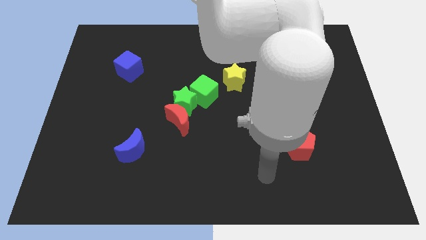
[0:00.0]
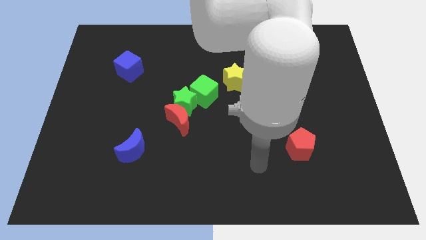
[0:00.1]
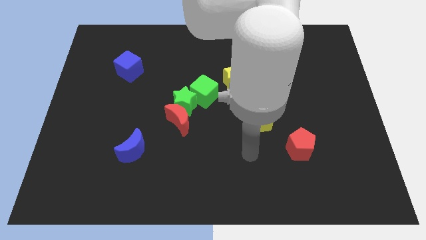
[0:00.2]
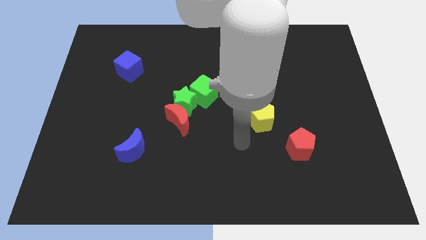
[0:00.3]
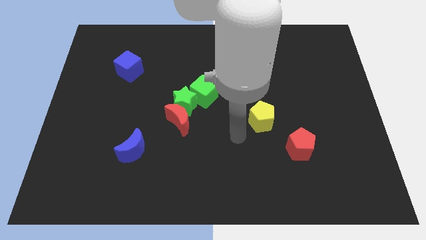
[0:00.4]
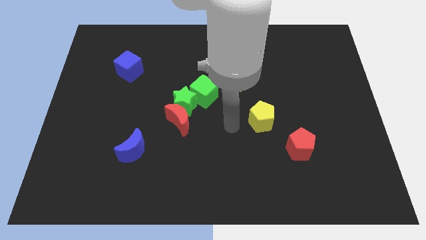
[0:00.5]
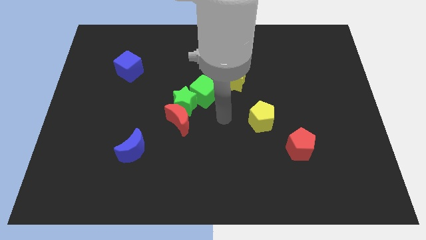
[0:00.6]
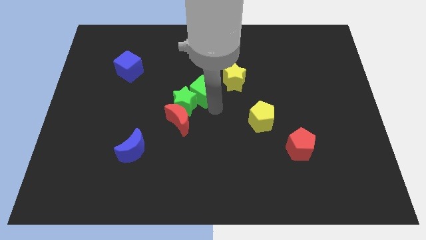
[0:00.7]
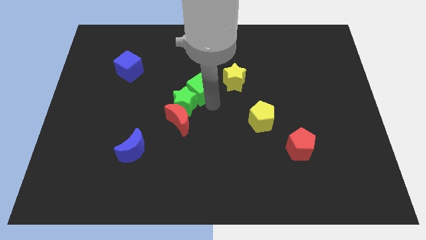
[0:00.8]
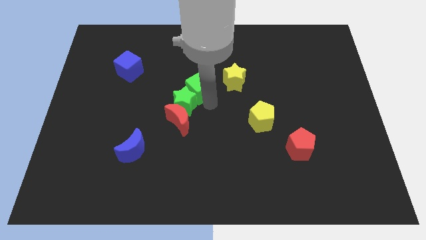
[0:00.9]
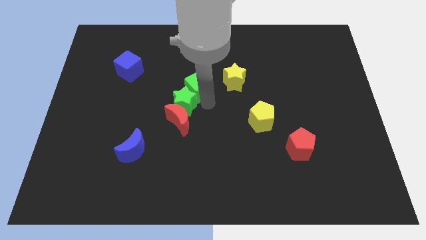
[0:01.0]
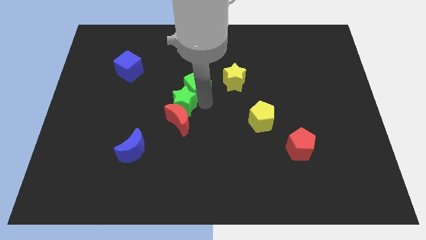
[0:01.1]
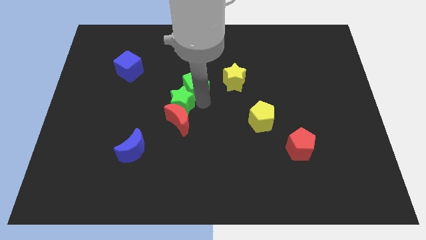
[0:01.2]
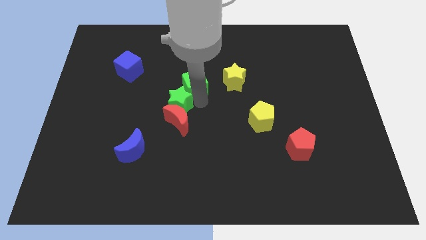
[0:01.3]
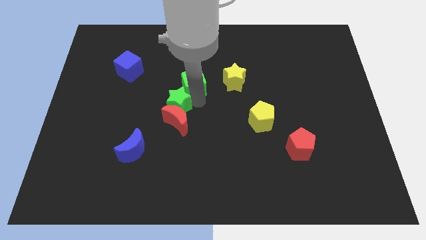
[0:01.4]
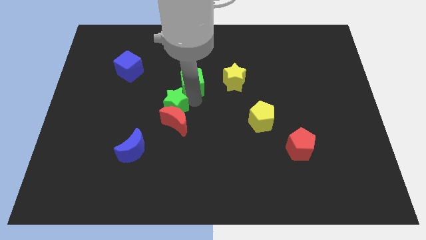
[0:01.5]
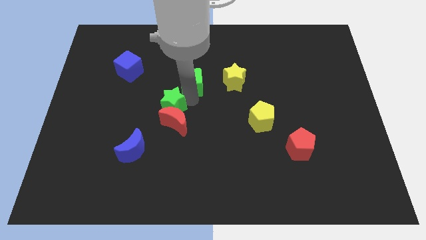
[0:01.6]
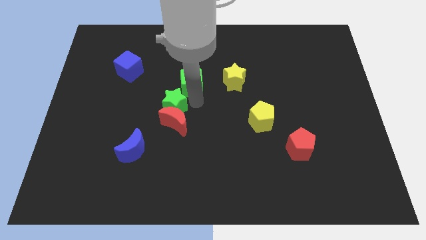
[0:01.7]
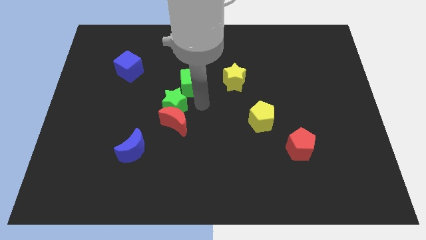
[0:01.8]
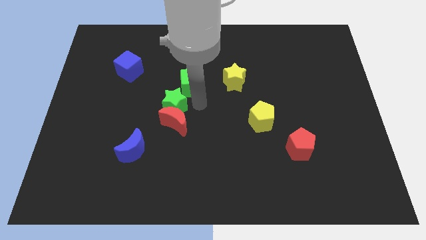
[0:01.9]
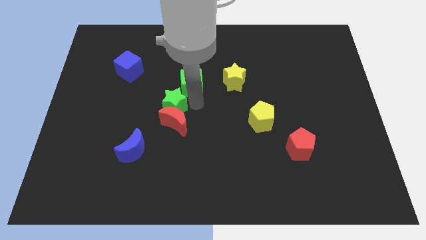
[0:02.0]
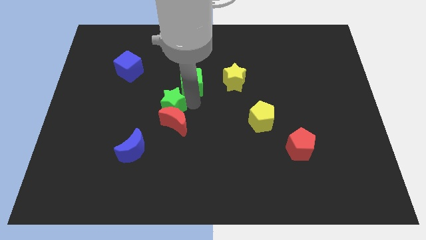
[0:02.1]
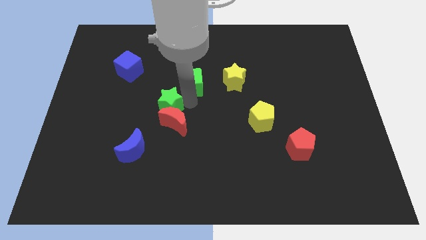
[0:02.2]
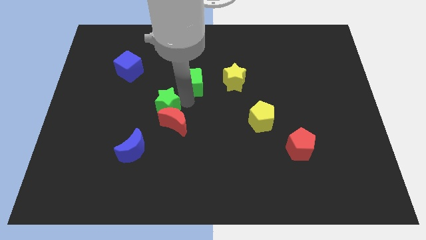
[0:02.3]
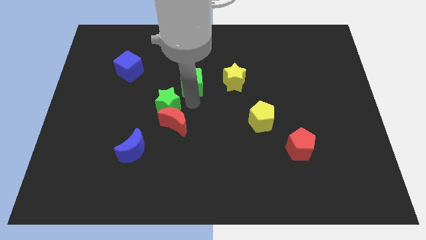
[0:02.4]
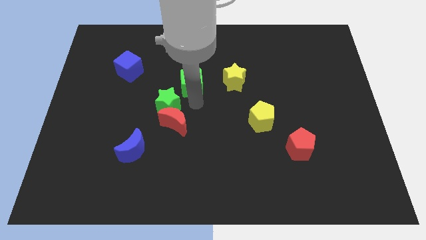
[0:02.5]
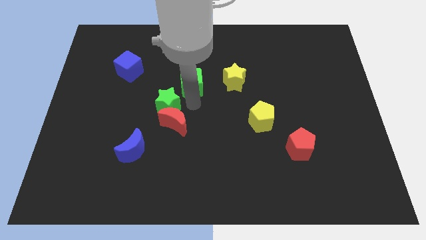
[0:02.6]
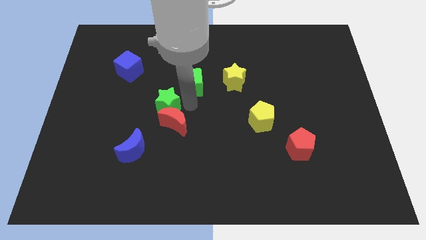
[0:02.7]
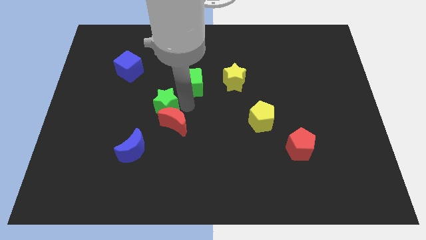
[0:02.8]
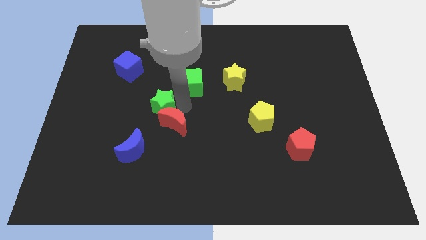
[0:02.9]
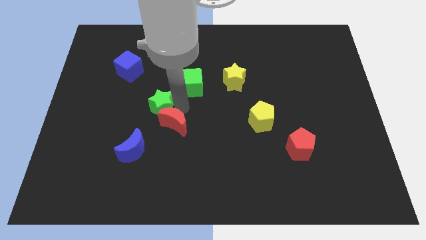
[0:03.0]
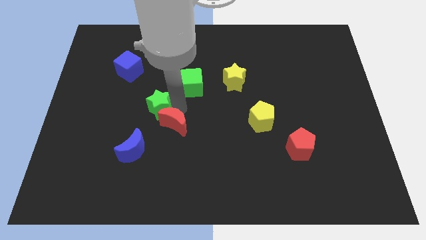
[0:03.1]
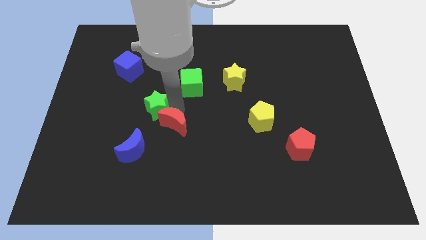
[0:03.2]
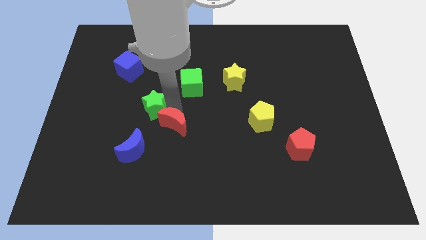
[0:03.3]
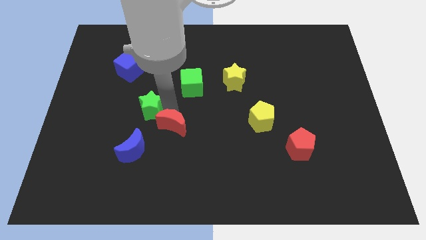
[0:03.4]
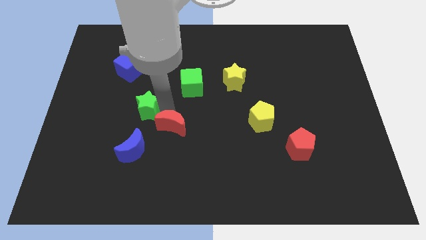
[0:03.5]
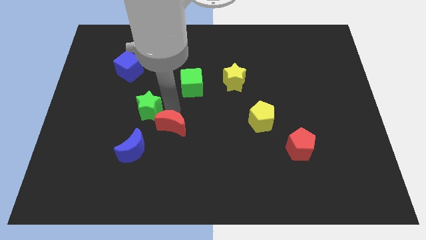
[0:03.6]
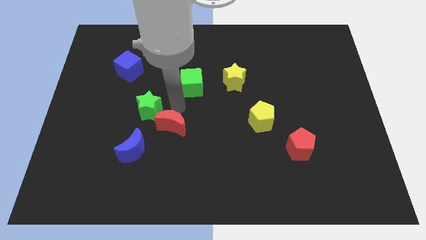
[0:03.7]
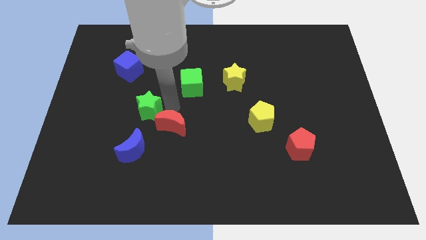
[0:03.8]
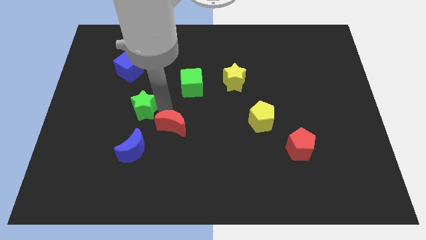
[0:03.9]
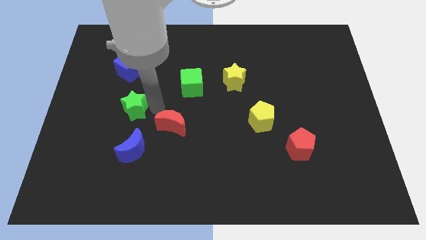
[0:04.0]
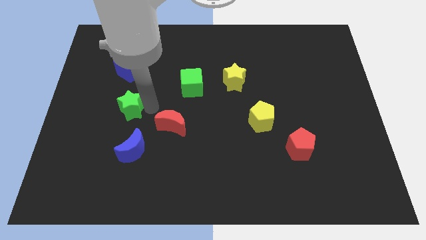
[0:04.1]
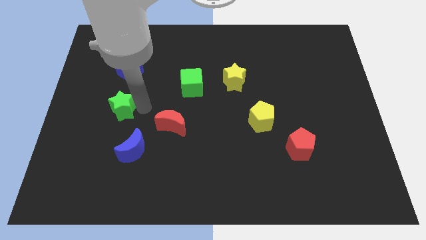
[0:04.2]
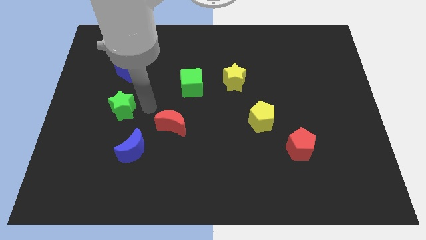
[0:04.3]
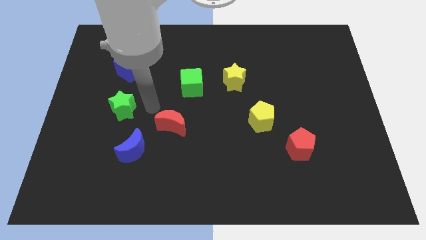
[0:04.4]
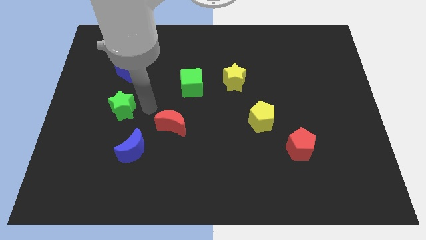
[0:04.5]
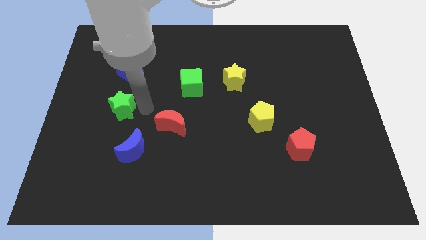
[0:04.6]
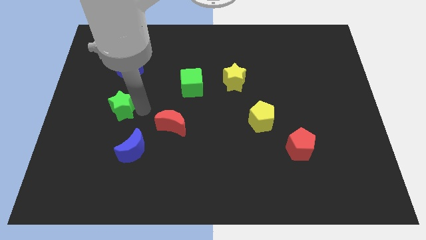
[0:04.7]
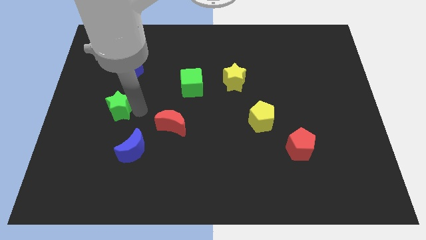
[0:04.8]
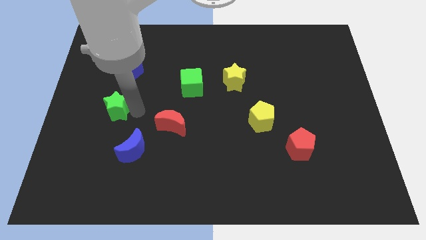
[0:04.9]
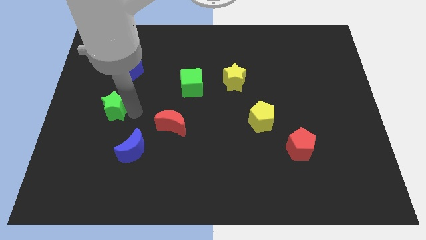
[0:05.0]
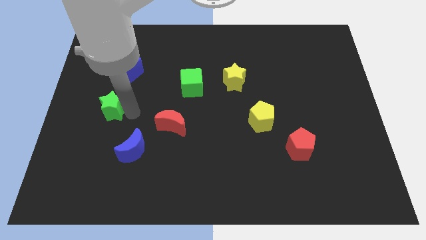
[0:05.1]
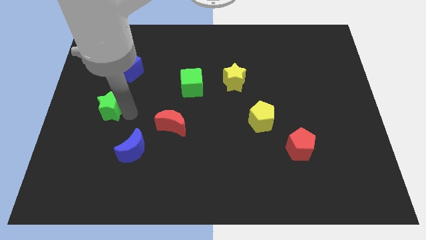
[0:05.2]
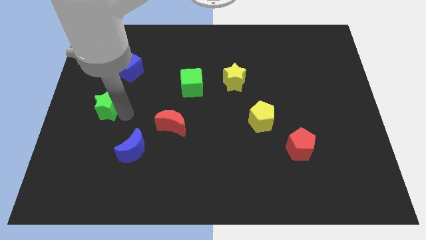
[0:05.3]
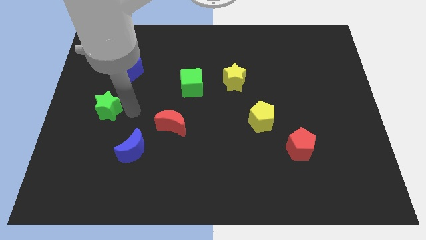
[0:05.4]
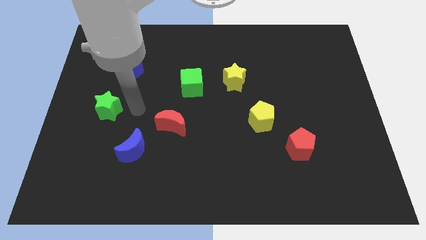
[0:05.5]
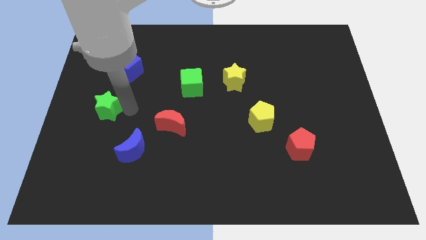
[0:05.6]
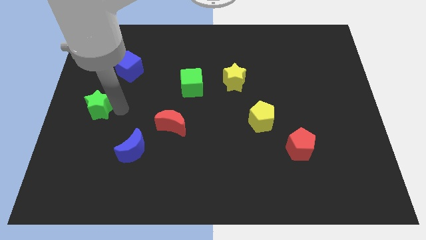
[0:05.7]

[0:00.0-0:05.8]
slide the green star to the left side of the board
